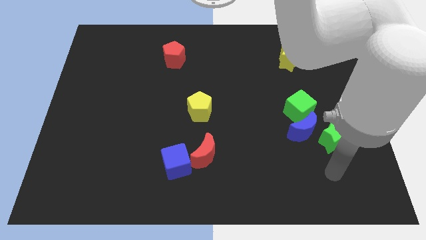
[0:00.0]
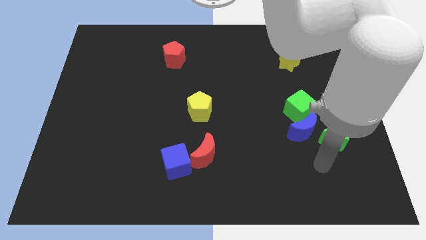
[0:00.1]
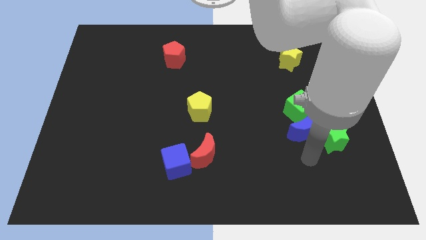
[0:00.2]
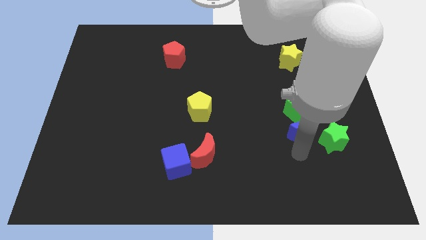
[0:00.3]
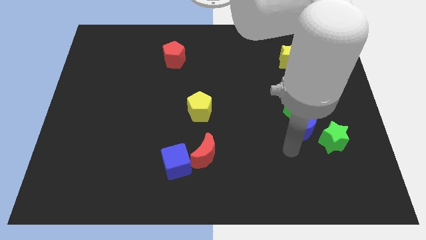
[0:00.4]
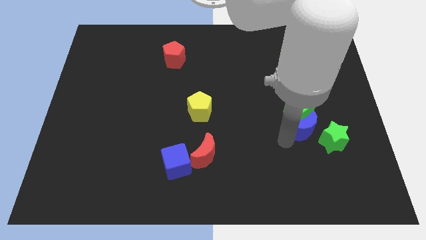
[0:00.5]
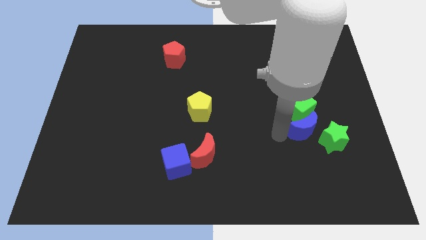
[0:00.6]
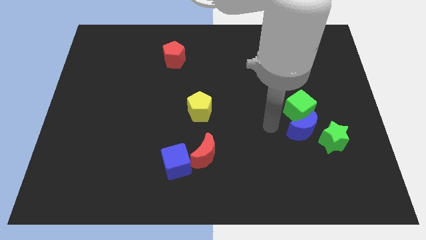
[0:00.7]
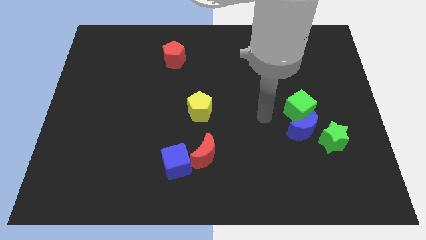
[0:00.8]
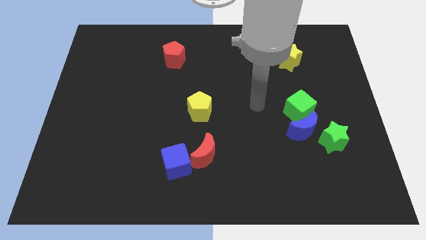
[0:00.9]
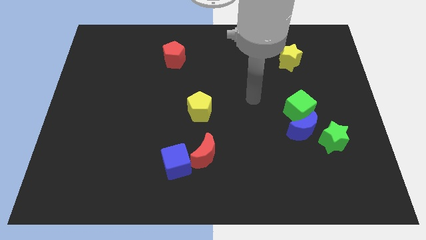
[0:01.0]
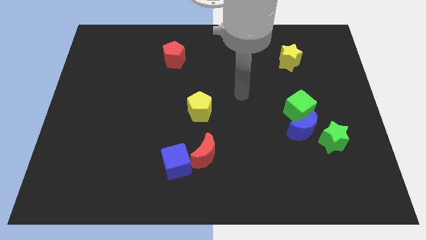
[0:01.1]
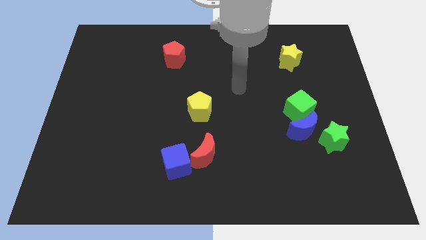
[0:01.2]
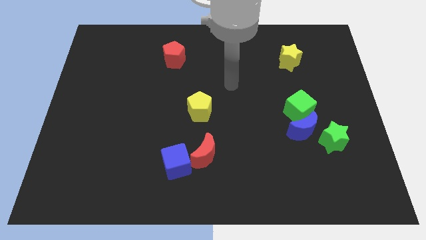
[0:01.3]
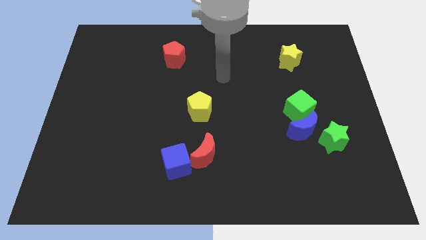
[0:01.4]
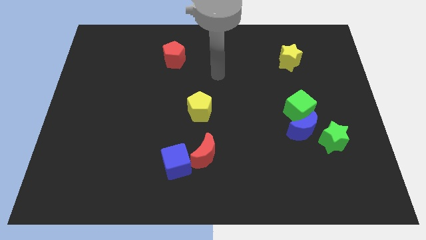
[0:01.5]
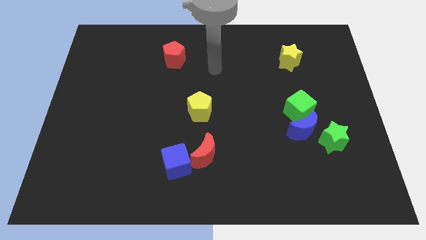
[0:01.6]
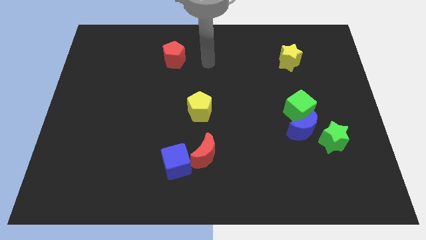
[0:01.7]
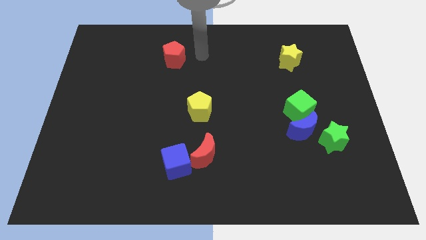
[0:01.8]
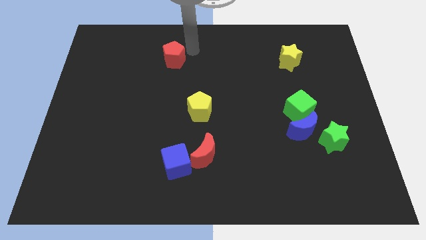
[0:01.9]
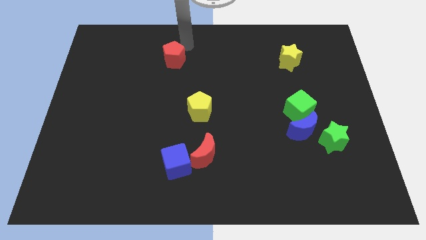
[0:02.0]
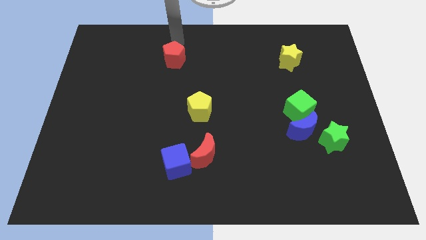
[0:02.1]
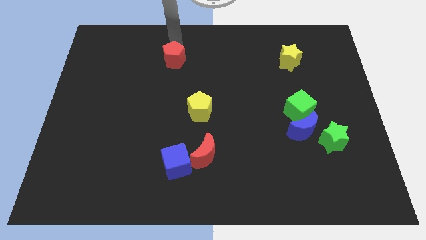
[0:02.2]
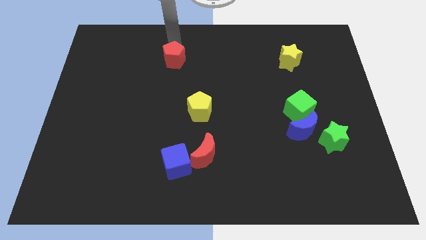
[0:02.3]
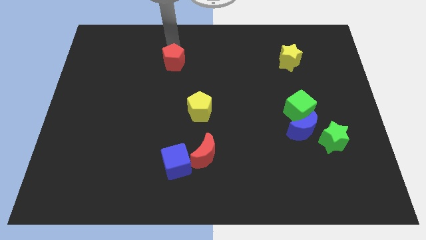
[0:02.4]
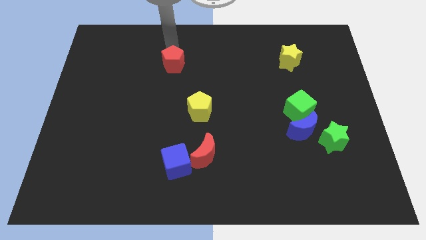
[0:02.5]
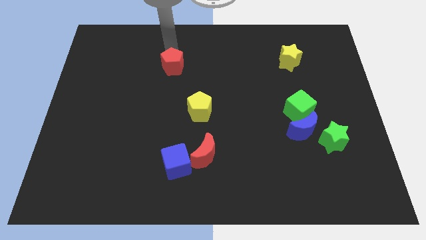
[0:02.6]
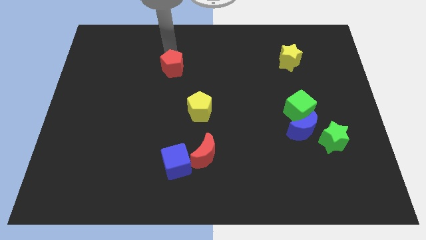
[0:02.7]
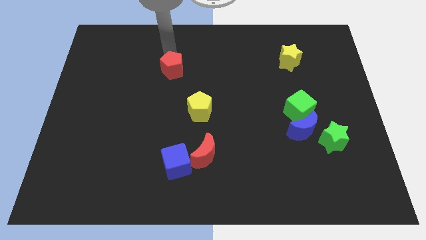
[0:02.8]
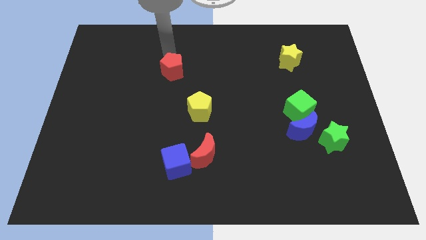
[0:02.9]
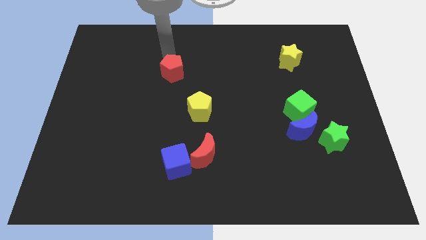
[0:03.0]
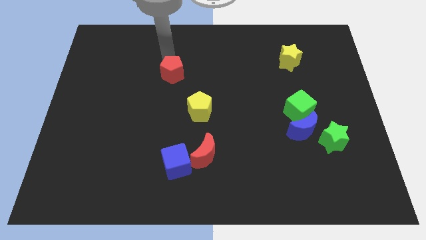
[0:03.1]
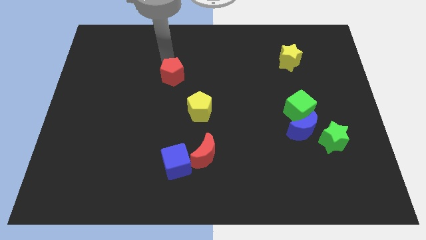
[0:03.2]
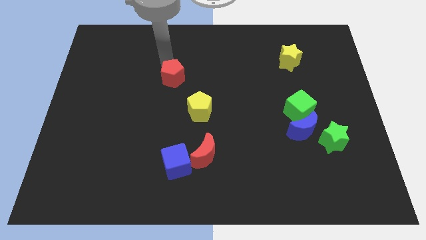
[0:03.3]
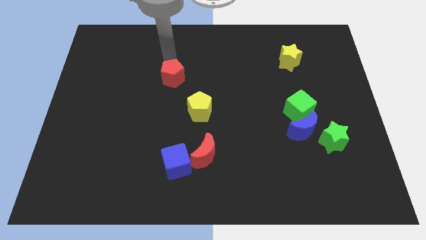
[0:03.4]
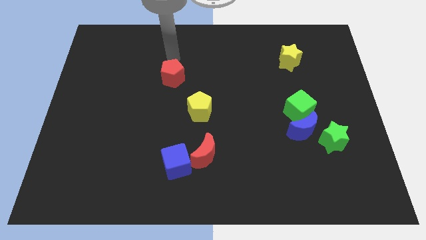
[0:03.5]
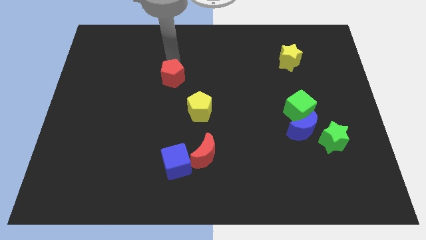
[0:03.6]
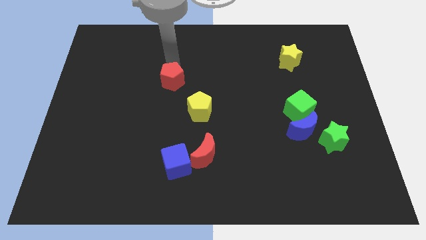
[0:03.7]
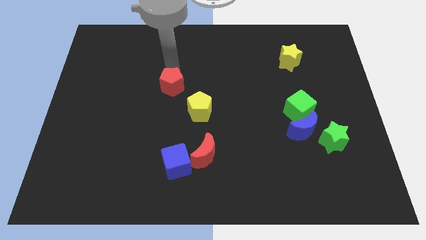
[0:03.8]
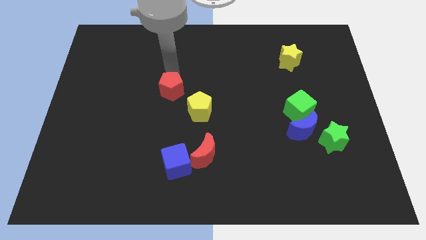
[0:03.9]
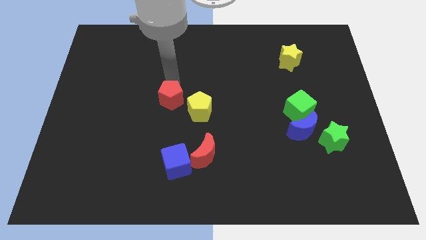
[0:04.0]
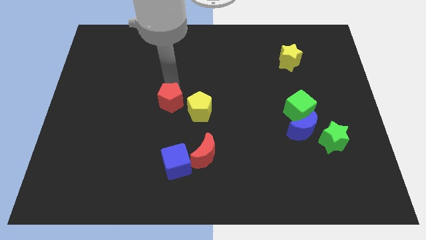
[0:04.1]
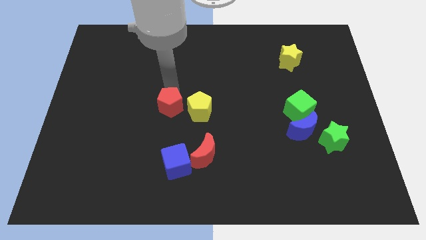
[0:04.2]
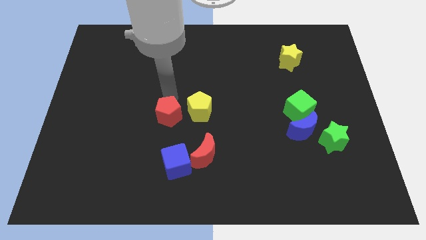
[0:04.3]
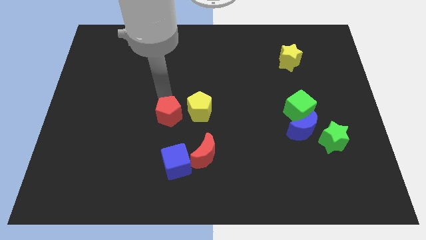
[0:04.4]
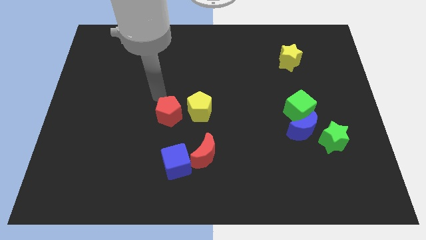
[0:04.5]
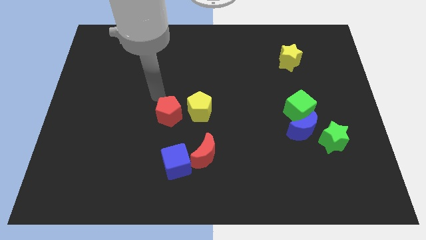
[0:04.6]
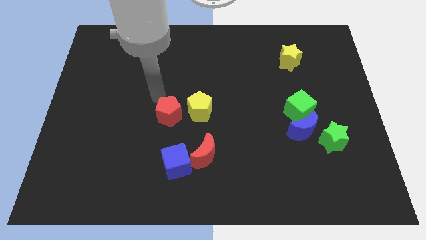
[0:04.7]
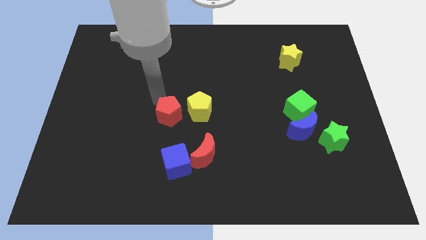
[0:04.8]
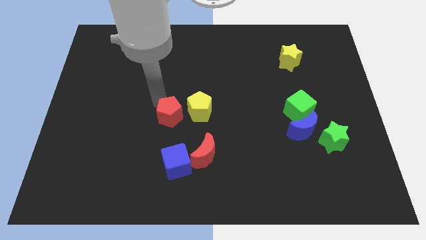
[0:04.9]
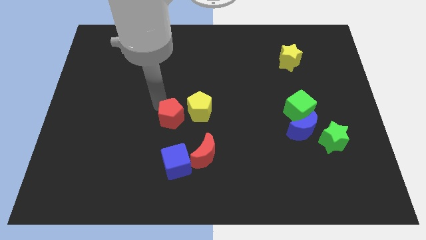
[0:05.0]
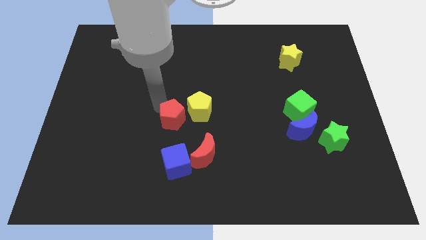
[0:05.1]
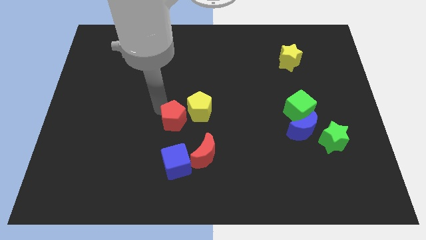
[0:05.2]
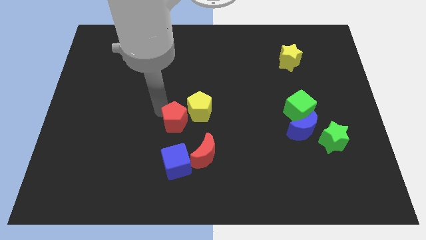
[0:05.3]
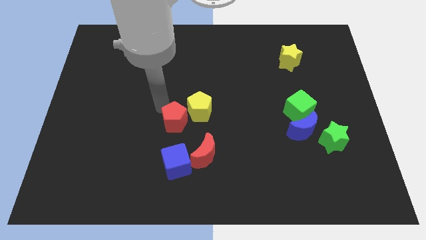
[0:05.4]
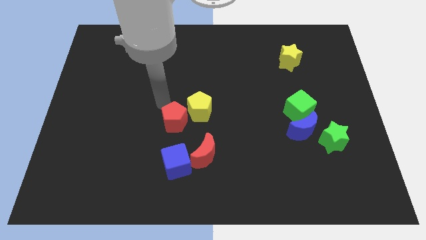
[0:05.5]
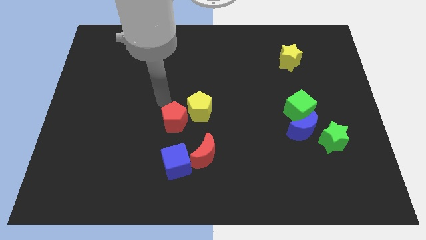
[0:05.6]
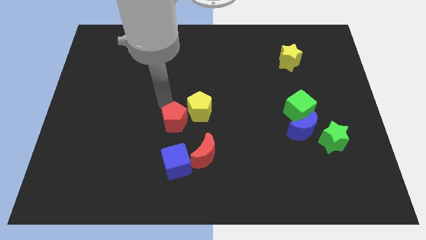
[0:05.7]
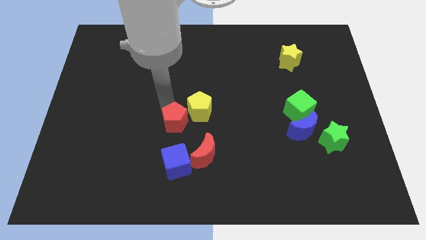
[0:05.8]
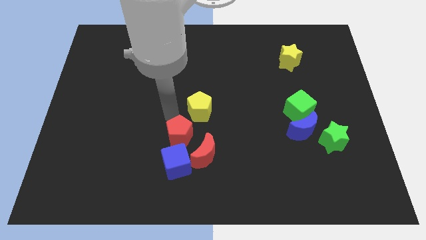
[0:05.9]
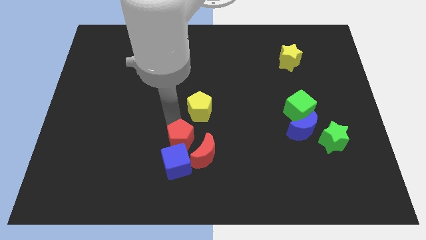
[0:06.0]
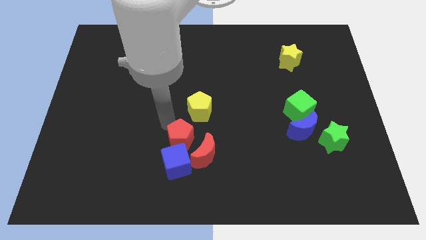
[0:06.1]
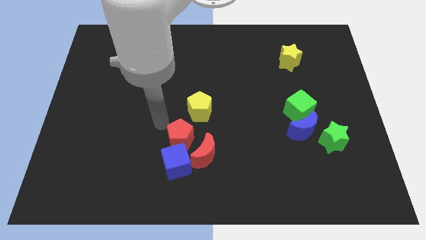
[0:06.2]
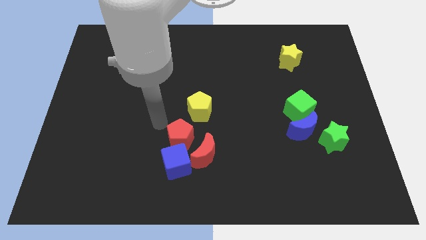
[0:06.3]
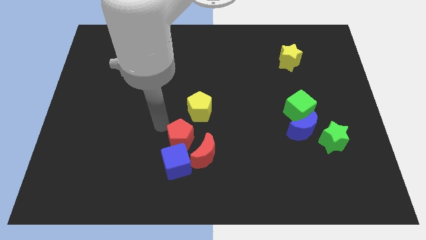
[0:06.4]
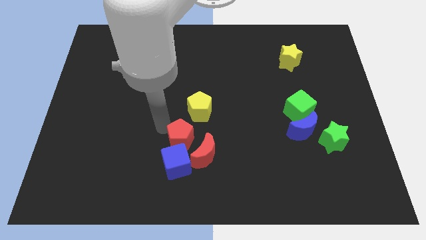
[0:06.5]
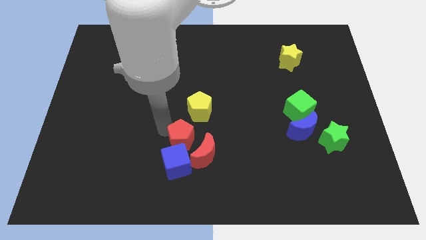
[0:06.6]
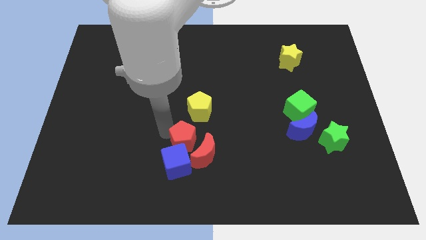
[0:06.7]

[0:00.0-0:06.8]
slide the red pentagon close to the red moon

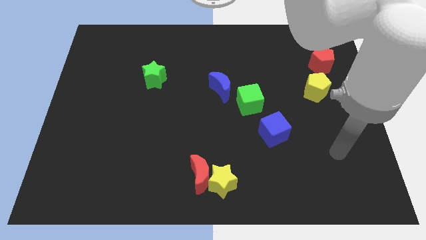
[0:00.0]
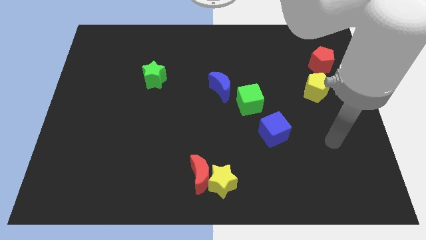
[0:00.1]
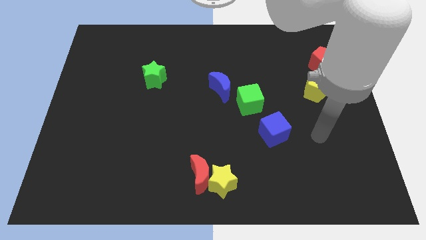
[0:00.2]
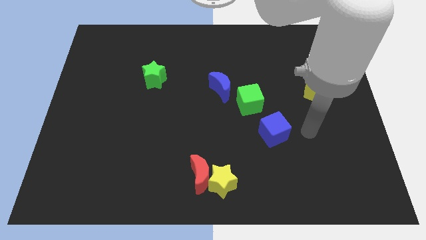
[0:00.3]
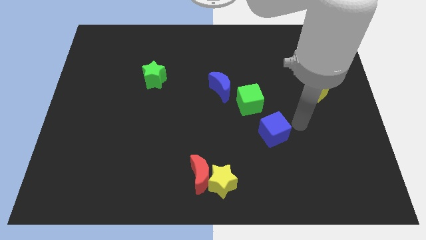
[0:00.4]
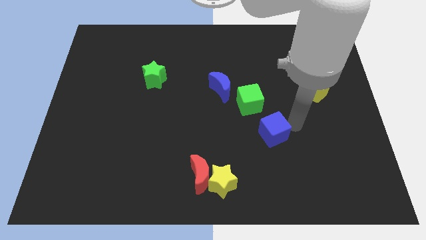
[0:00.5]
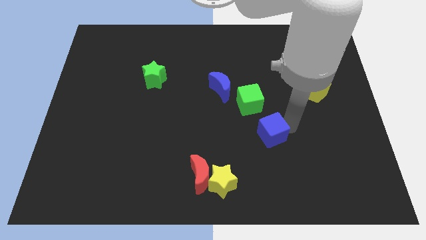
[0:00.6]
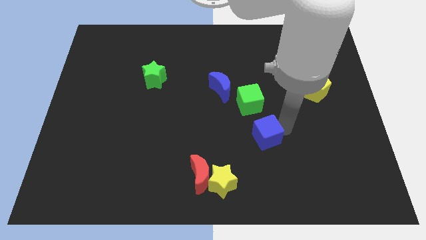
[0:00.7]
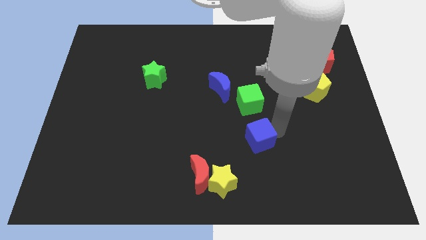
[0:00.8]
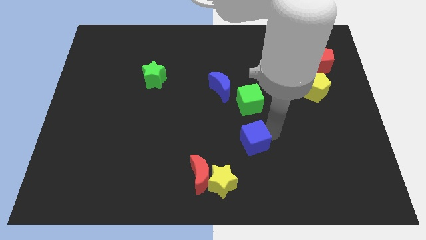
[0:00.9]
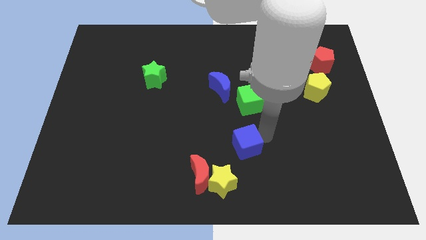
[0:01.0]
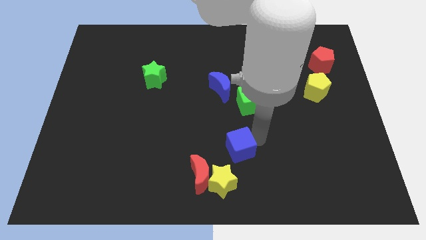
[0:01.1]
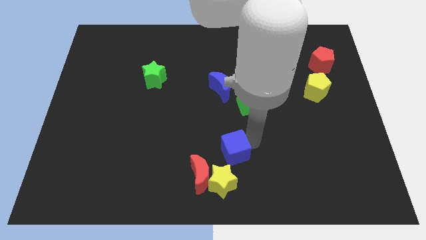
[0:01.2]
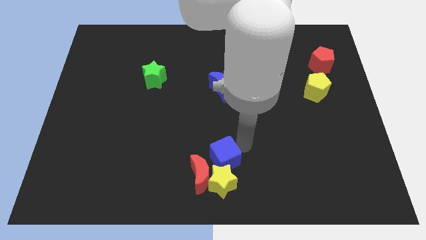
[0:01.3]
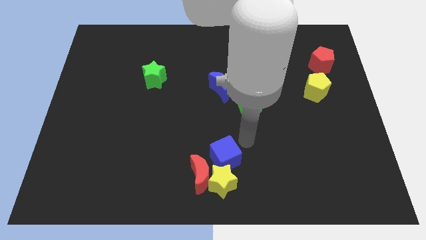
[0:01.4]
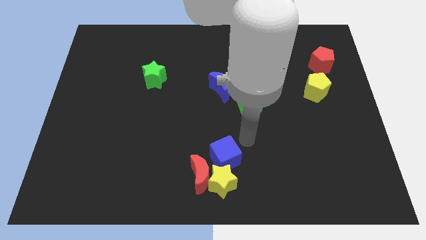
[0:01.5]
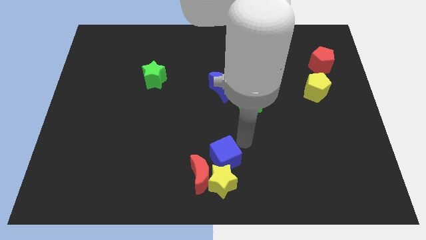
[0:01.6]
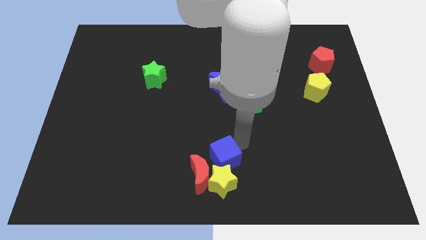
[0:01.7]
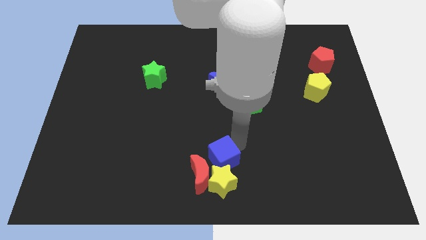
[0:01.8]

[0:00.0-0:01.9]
put the blue cube to the red moon
